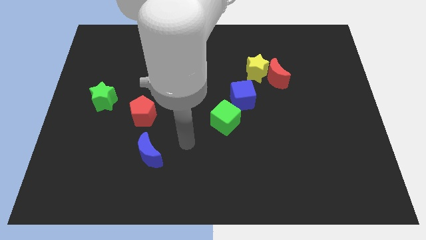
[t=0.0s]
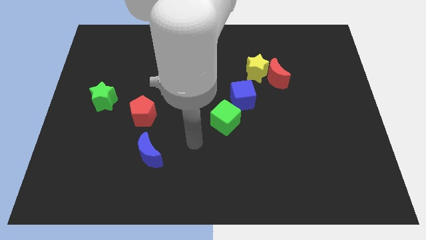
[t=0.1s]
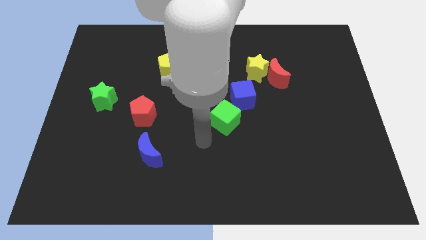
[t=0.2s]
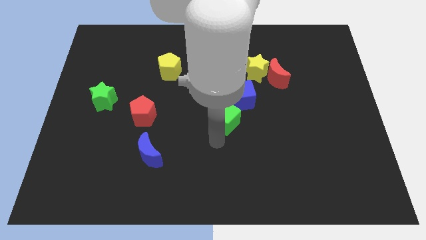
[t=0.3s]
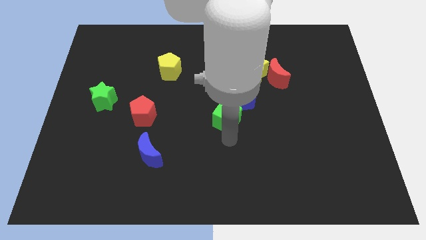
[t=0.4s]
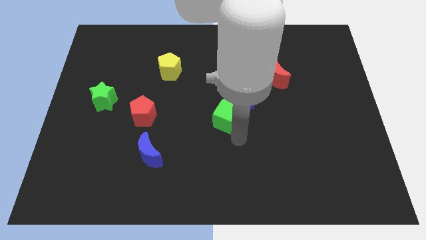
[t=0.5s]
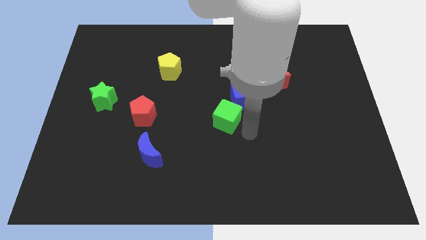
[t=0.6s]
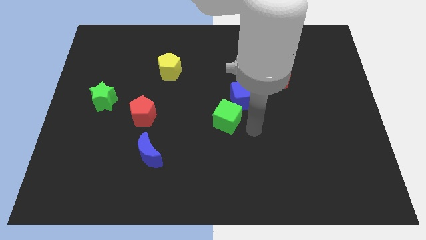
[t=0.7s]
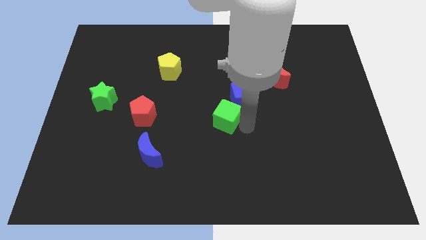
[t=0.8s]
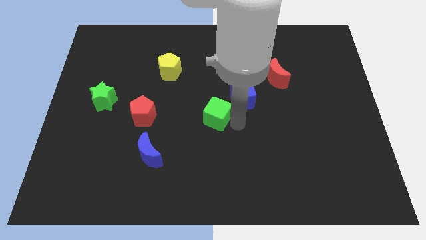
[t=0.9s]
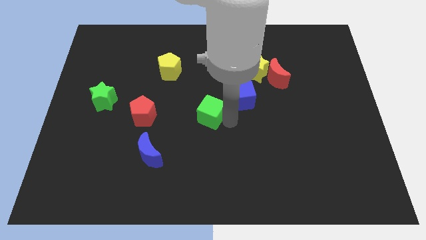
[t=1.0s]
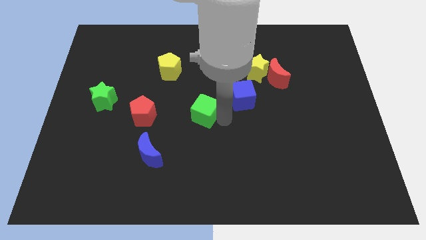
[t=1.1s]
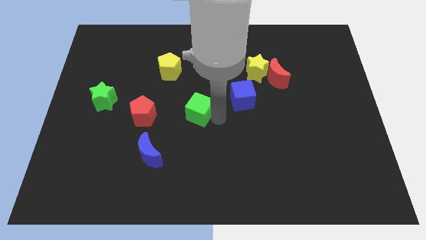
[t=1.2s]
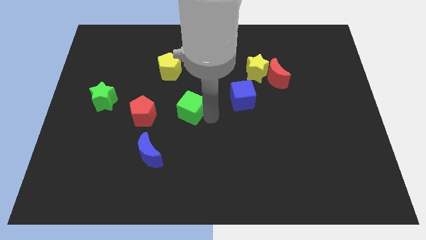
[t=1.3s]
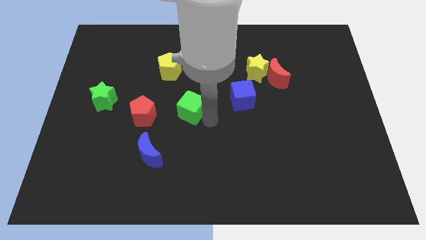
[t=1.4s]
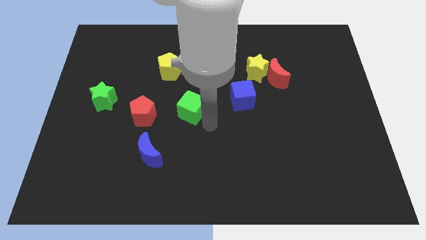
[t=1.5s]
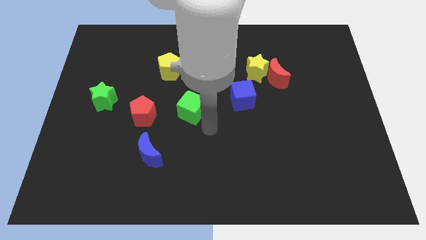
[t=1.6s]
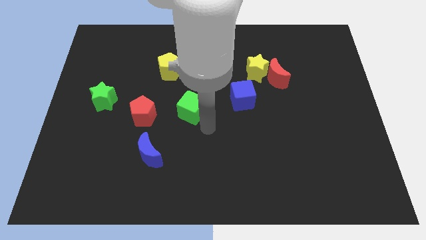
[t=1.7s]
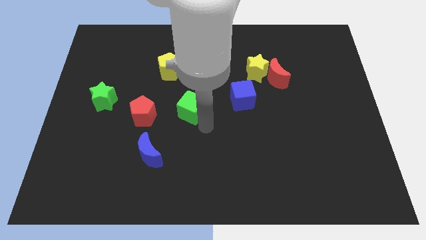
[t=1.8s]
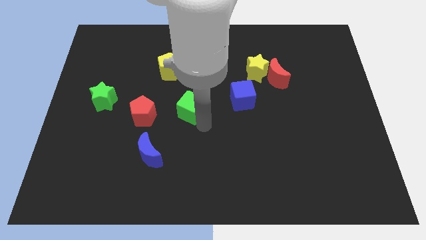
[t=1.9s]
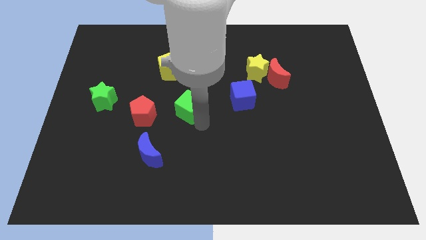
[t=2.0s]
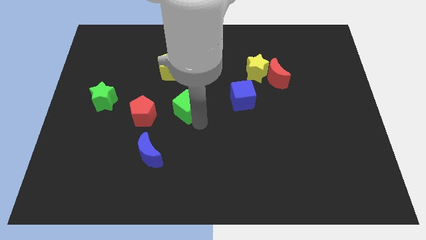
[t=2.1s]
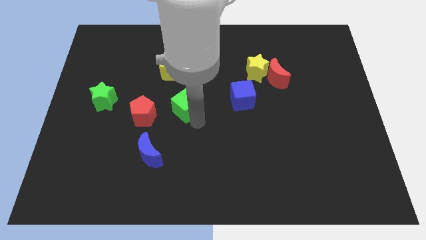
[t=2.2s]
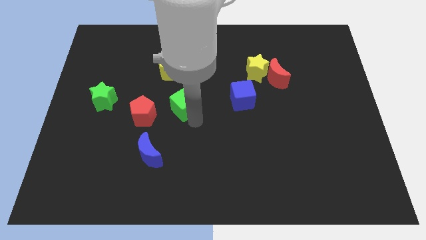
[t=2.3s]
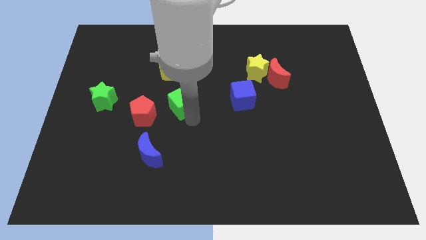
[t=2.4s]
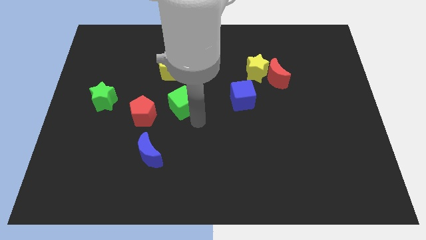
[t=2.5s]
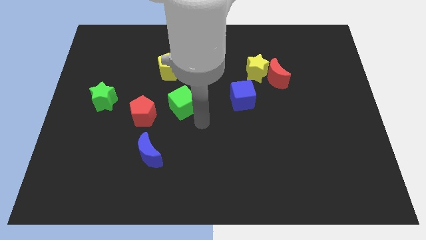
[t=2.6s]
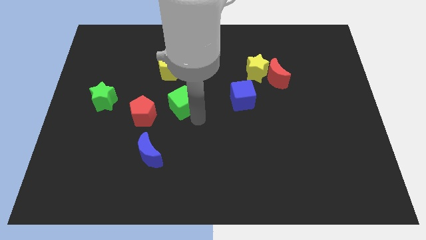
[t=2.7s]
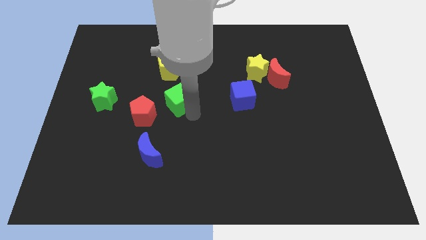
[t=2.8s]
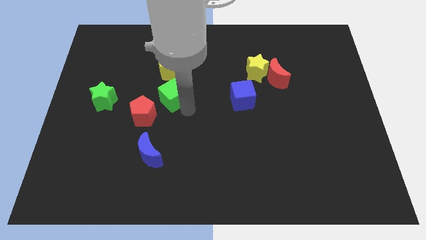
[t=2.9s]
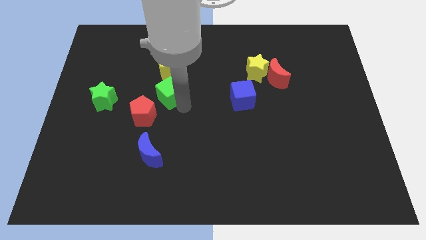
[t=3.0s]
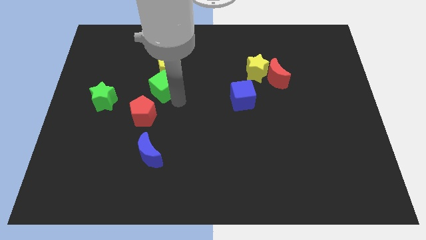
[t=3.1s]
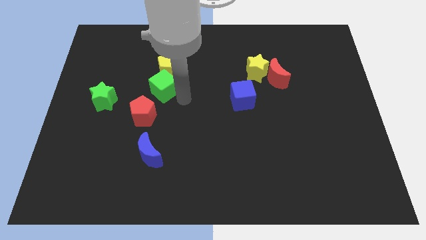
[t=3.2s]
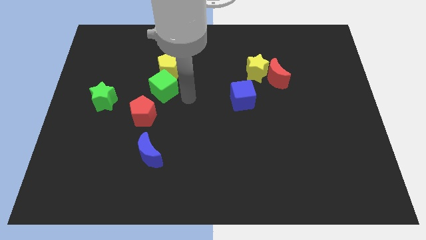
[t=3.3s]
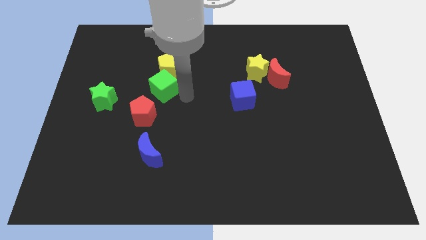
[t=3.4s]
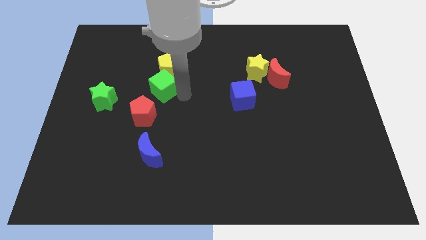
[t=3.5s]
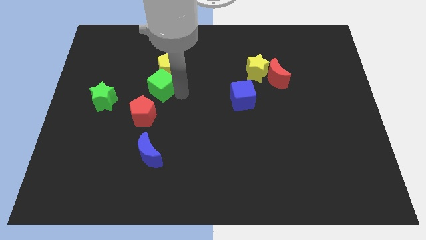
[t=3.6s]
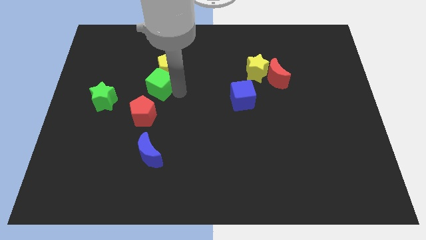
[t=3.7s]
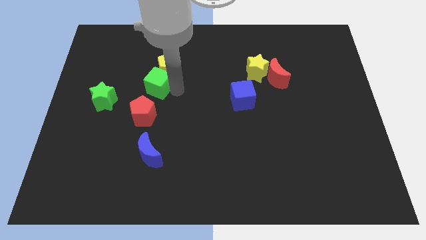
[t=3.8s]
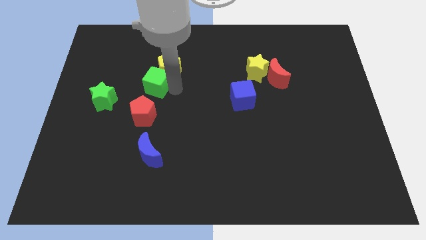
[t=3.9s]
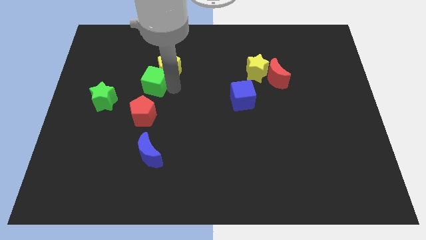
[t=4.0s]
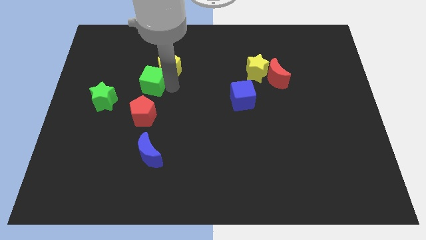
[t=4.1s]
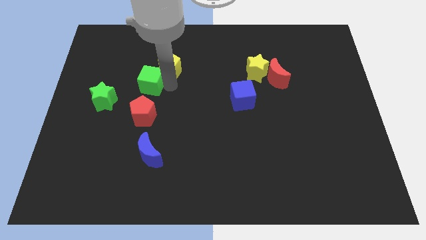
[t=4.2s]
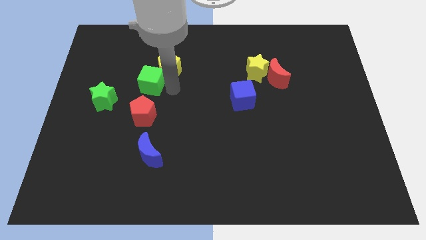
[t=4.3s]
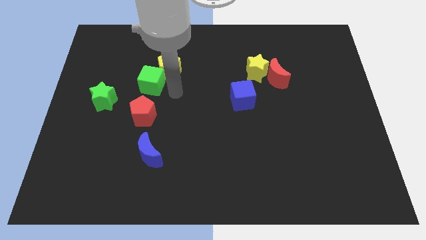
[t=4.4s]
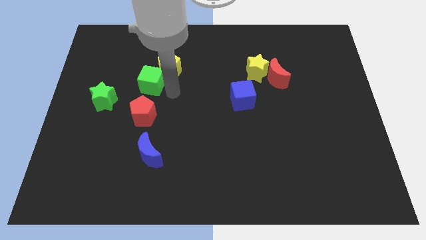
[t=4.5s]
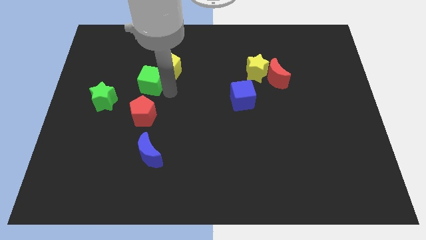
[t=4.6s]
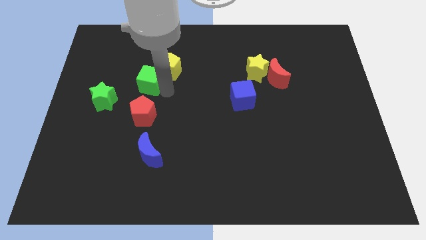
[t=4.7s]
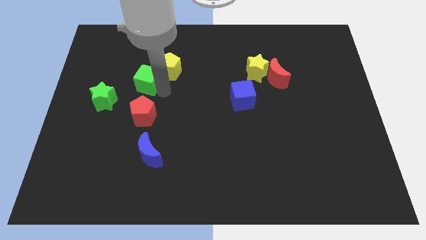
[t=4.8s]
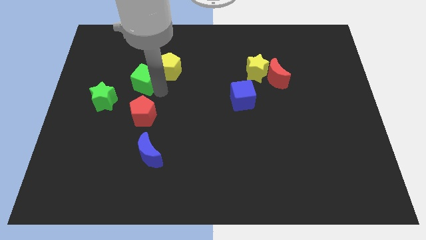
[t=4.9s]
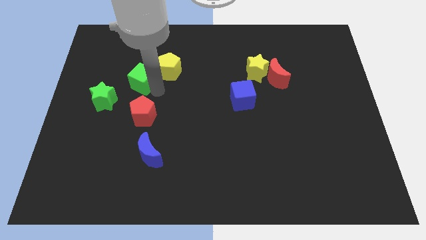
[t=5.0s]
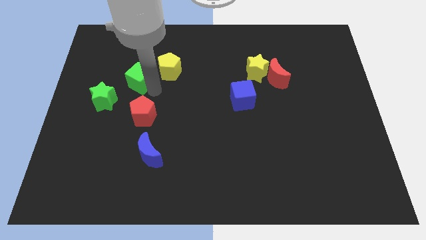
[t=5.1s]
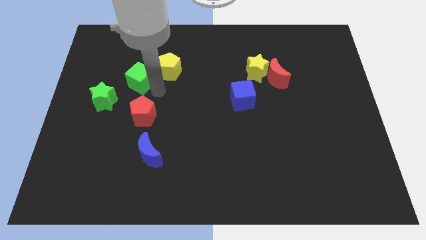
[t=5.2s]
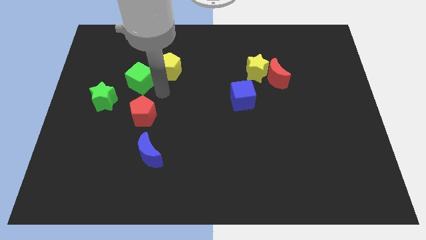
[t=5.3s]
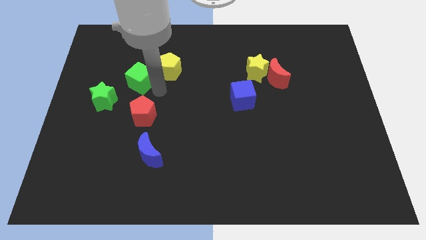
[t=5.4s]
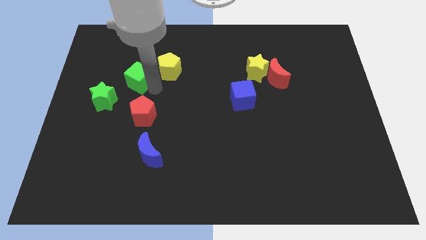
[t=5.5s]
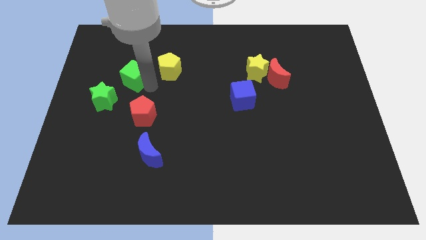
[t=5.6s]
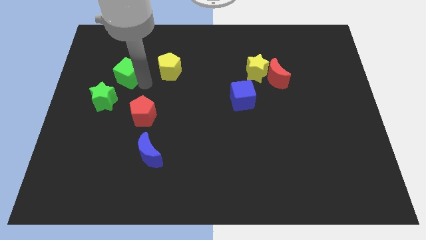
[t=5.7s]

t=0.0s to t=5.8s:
put the green cube to the top of the green star
